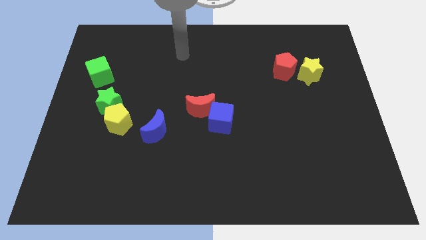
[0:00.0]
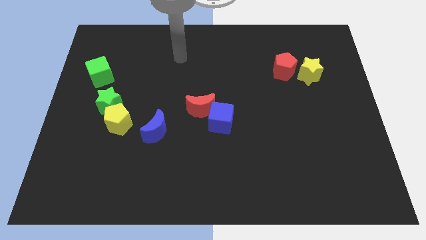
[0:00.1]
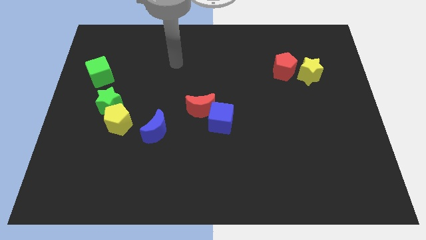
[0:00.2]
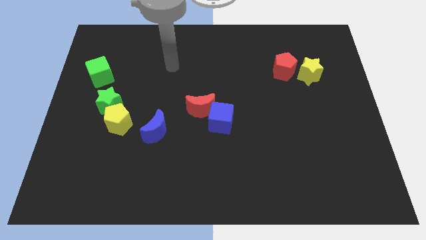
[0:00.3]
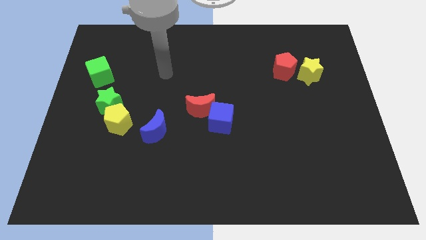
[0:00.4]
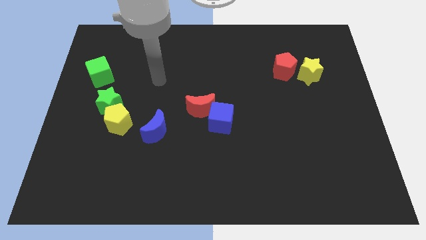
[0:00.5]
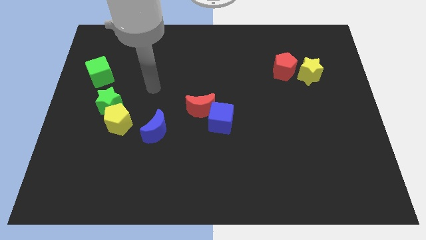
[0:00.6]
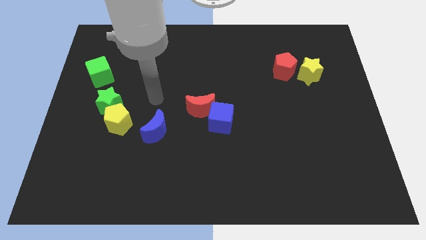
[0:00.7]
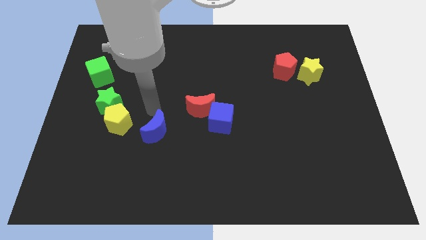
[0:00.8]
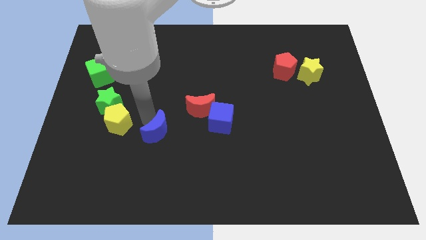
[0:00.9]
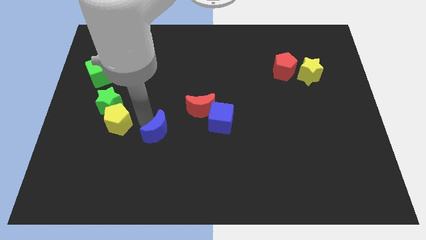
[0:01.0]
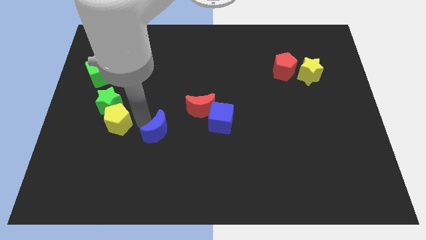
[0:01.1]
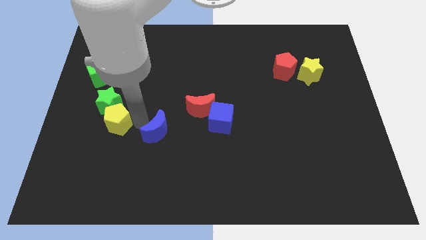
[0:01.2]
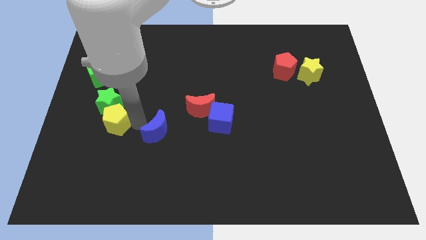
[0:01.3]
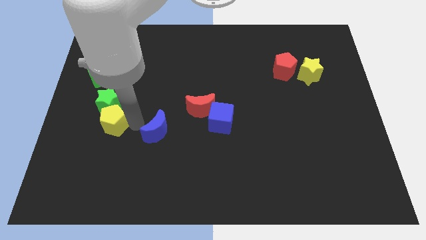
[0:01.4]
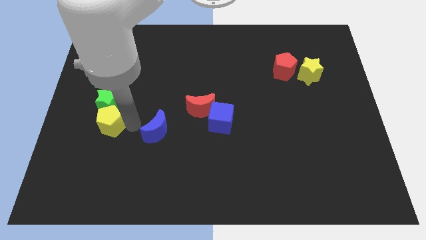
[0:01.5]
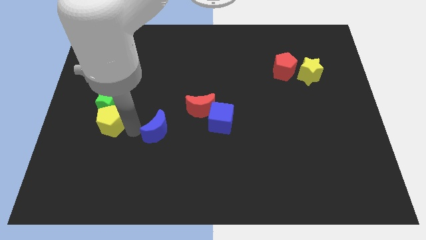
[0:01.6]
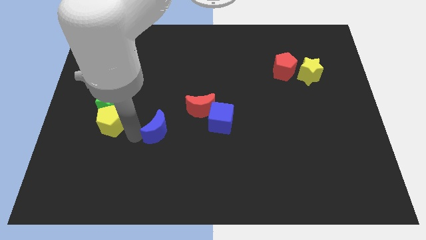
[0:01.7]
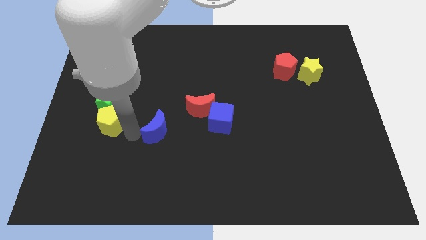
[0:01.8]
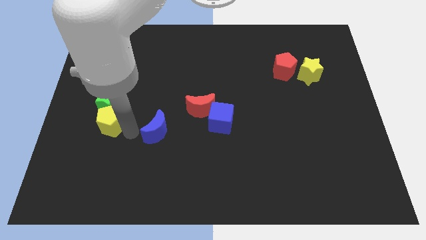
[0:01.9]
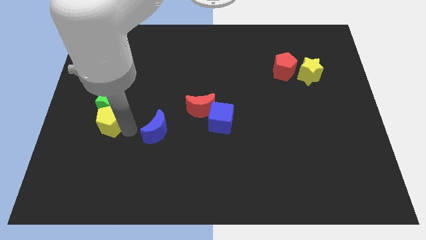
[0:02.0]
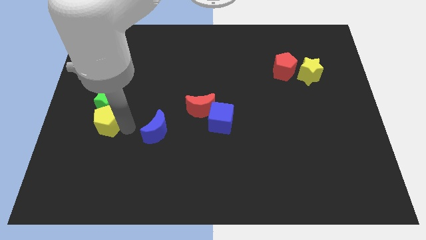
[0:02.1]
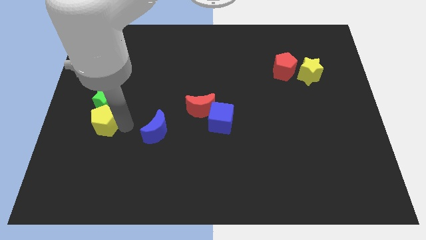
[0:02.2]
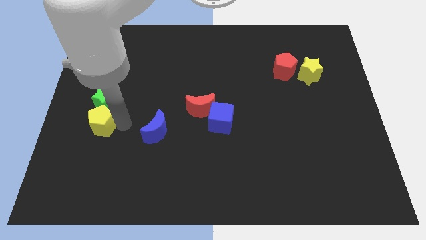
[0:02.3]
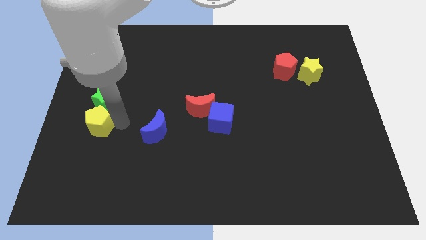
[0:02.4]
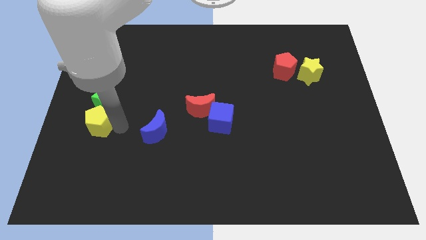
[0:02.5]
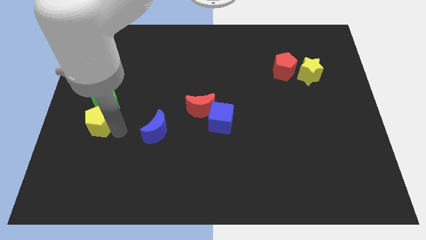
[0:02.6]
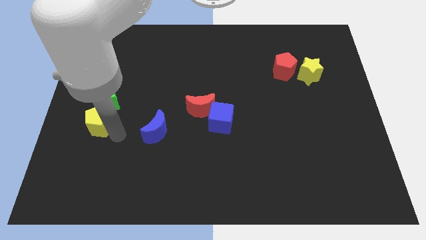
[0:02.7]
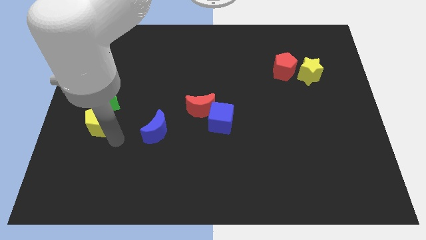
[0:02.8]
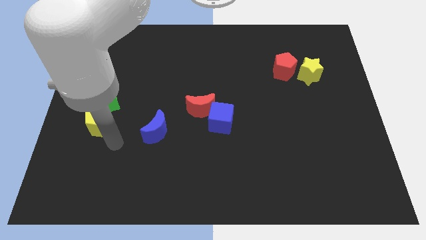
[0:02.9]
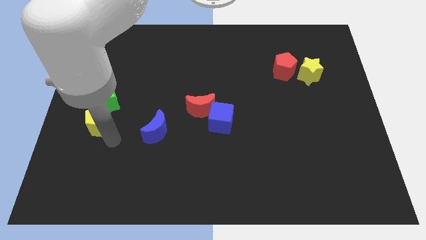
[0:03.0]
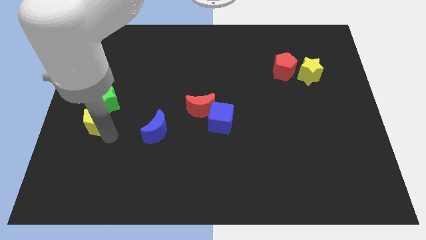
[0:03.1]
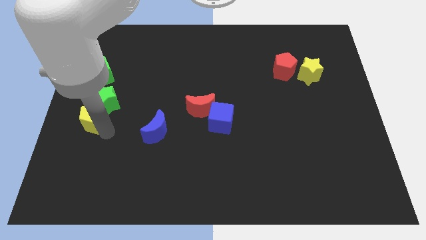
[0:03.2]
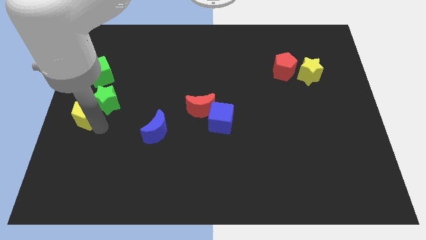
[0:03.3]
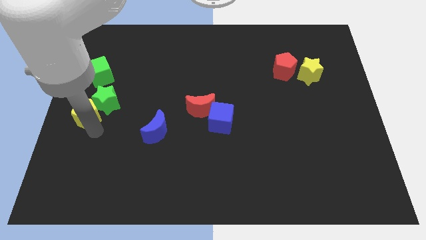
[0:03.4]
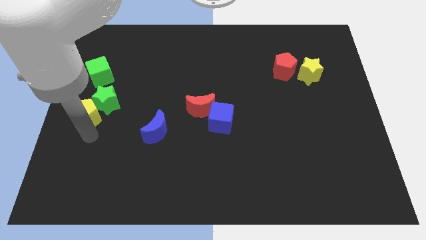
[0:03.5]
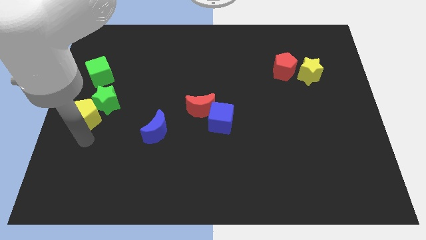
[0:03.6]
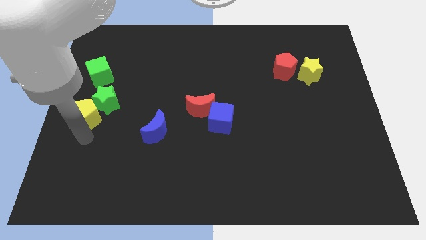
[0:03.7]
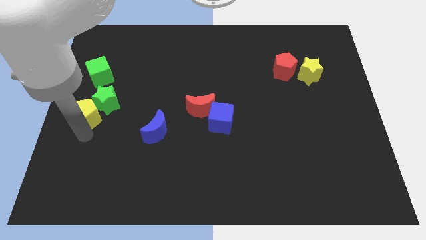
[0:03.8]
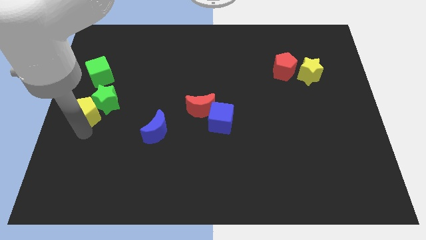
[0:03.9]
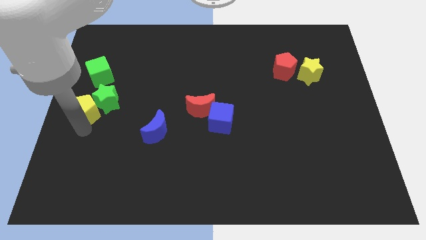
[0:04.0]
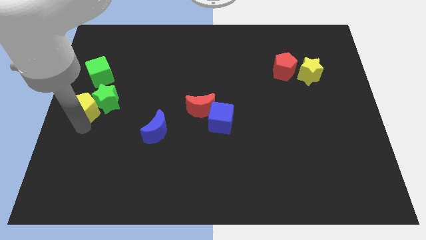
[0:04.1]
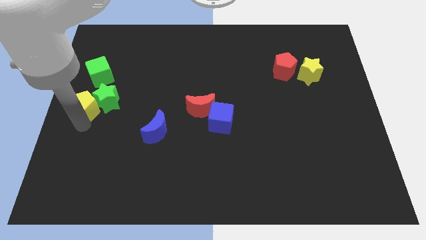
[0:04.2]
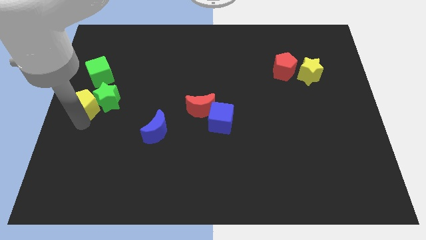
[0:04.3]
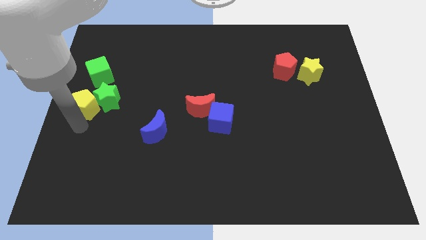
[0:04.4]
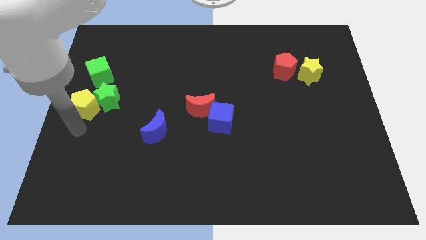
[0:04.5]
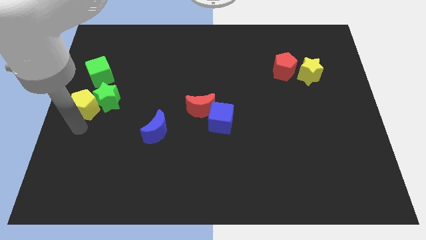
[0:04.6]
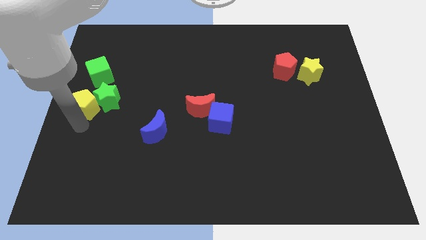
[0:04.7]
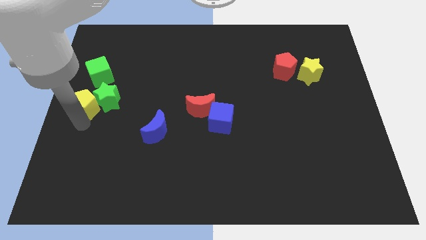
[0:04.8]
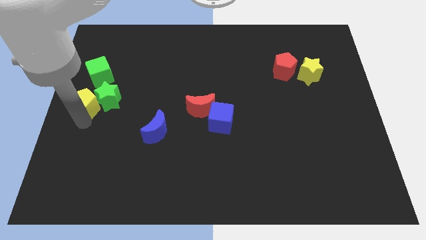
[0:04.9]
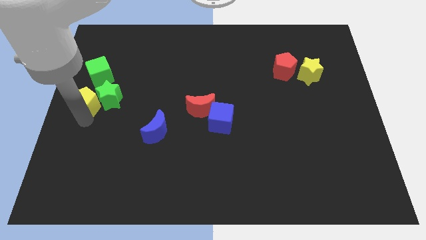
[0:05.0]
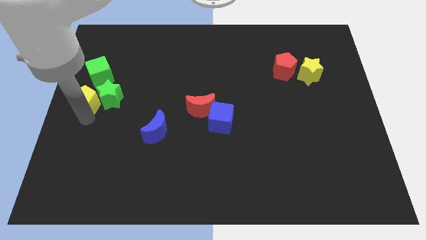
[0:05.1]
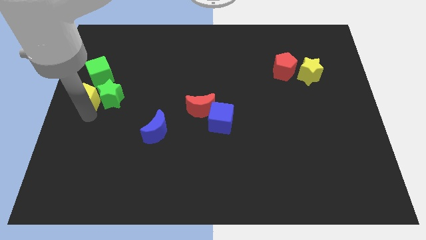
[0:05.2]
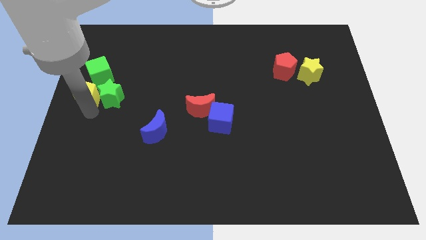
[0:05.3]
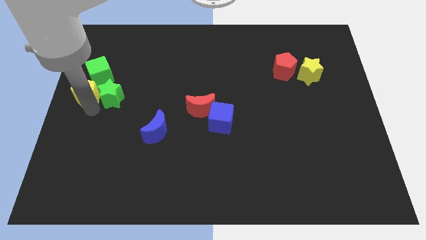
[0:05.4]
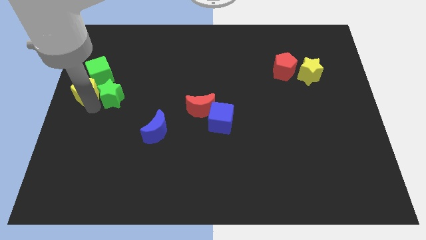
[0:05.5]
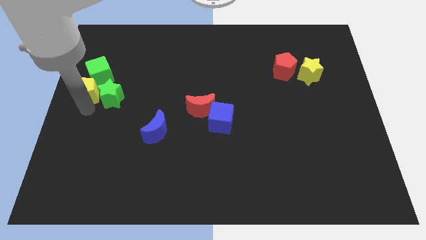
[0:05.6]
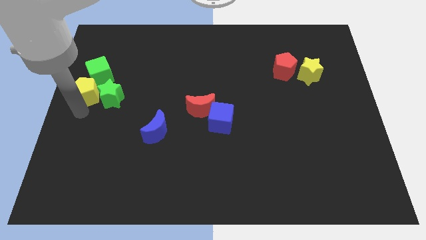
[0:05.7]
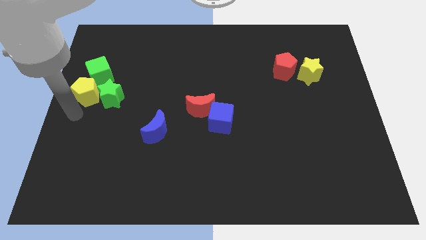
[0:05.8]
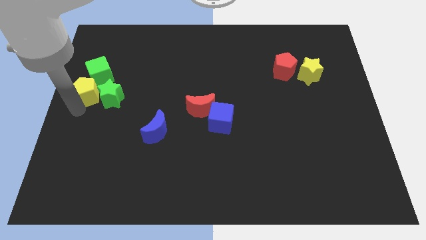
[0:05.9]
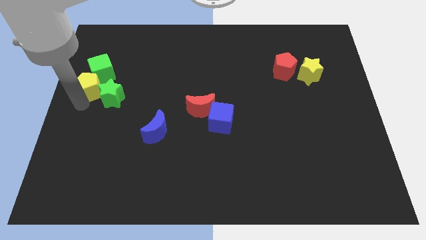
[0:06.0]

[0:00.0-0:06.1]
put the yellow pentagon close to the green cube

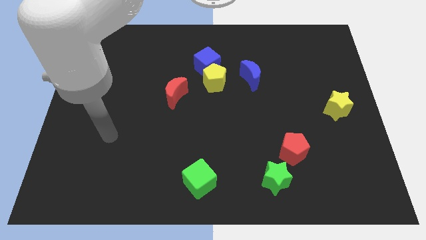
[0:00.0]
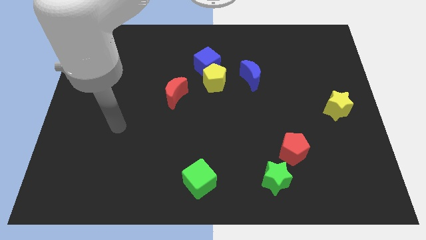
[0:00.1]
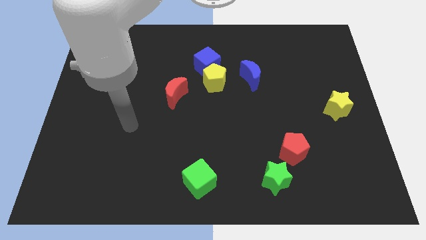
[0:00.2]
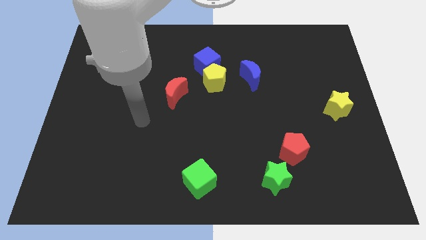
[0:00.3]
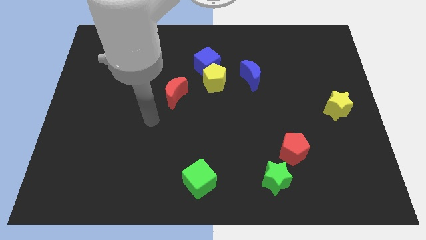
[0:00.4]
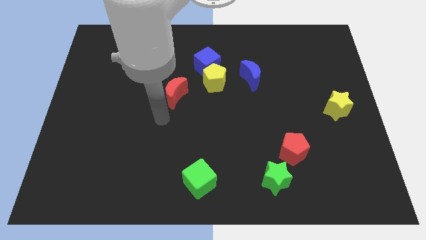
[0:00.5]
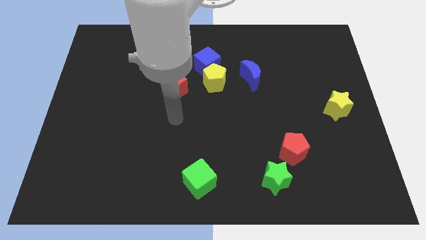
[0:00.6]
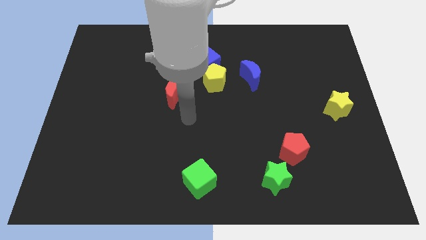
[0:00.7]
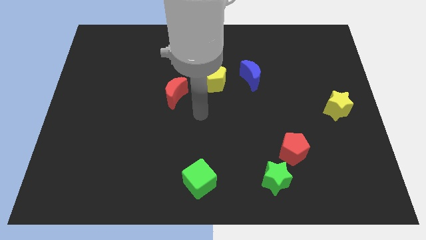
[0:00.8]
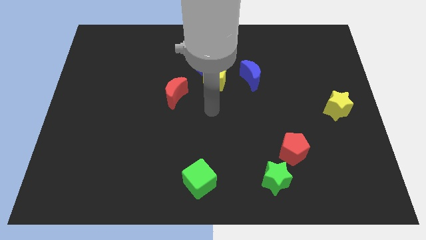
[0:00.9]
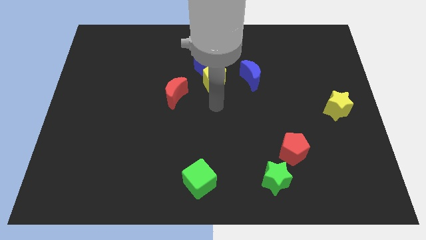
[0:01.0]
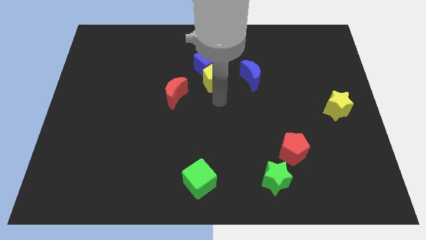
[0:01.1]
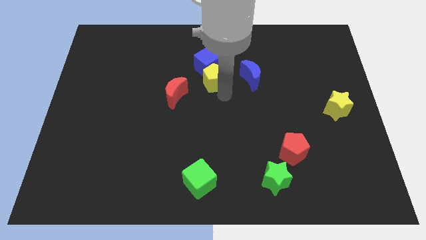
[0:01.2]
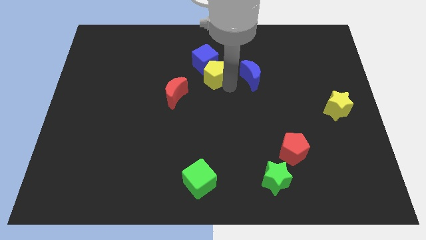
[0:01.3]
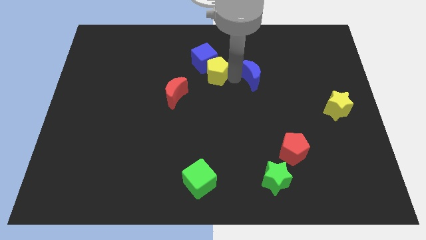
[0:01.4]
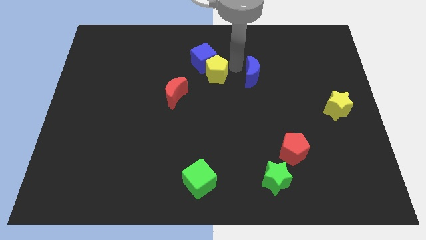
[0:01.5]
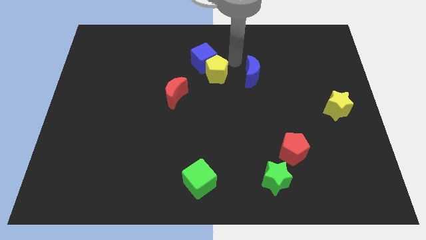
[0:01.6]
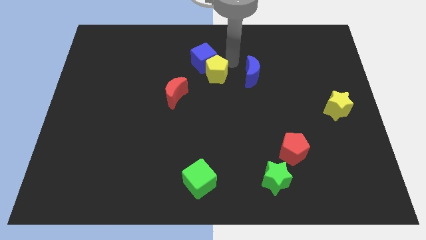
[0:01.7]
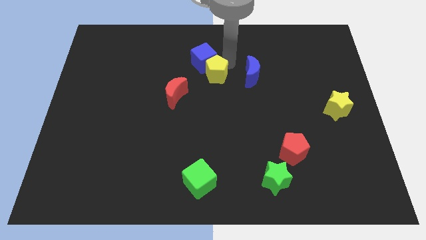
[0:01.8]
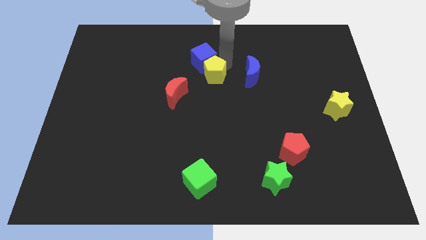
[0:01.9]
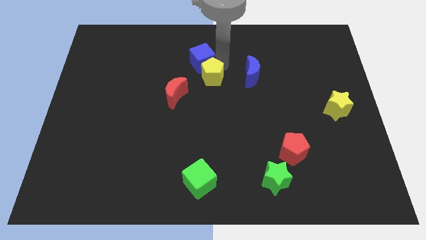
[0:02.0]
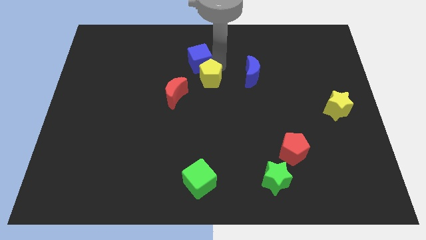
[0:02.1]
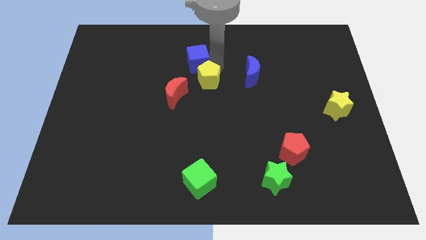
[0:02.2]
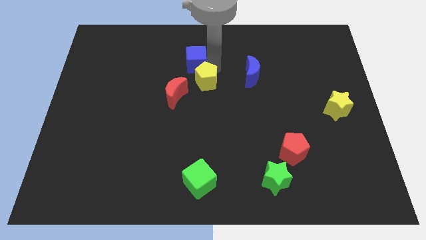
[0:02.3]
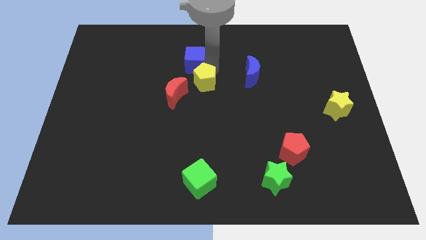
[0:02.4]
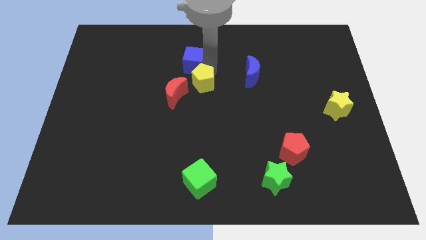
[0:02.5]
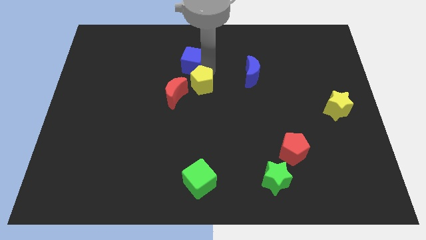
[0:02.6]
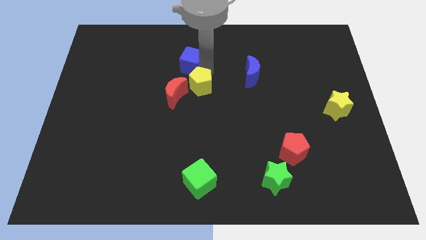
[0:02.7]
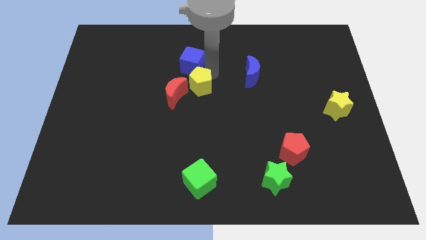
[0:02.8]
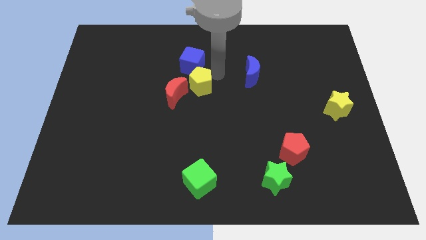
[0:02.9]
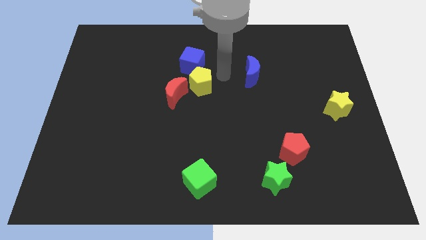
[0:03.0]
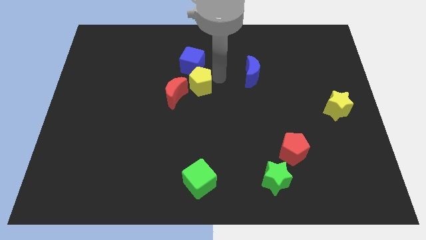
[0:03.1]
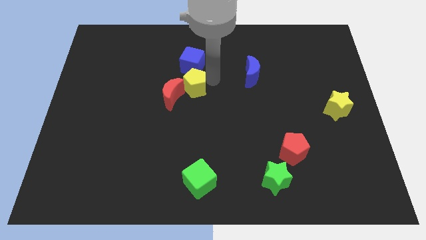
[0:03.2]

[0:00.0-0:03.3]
move the yellow pentagon towards the red moon
